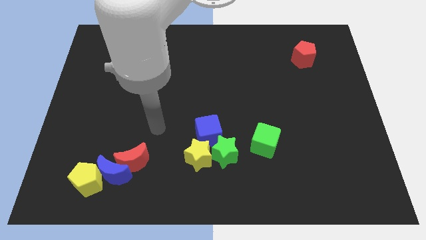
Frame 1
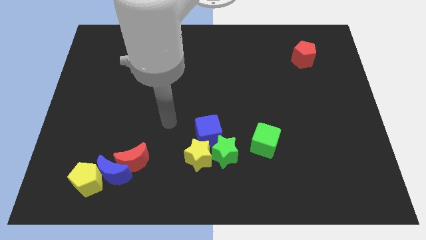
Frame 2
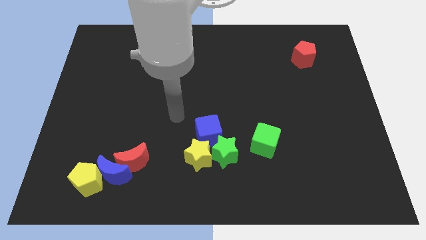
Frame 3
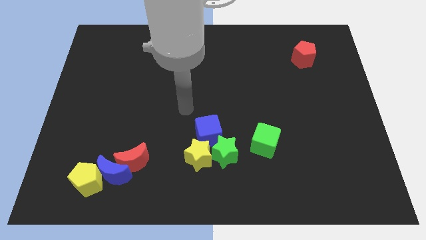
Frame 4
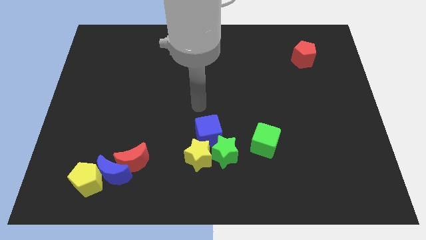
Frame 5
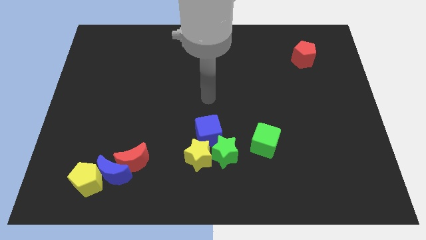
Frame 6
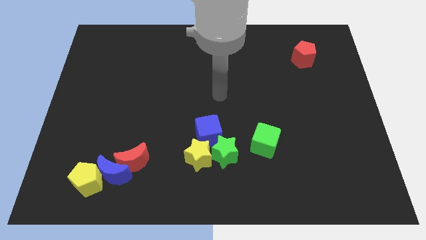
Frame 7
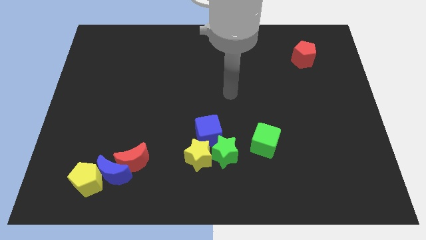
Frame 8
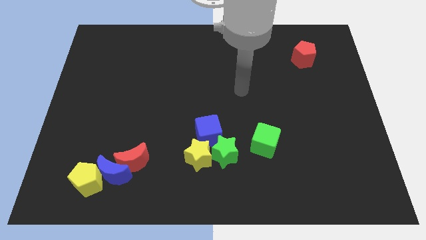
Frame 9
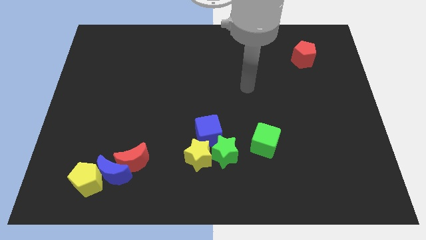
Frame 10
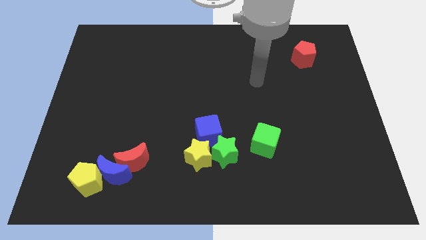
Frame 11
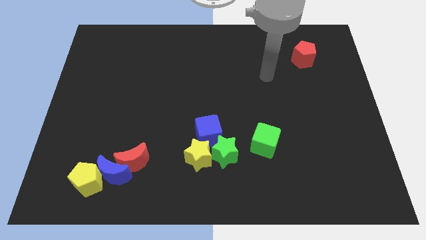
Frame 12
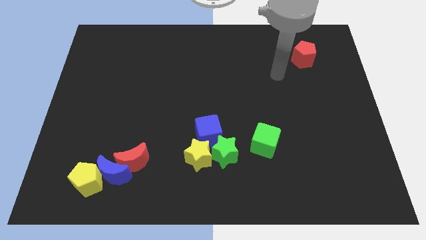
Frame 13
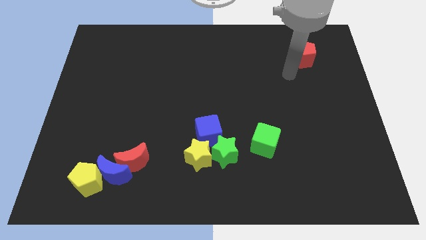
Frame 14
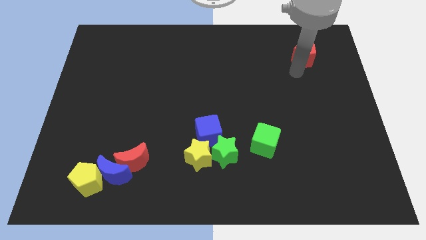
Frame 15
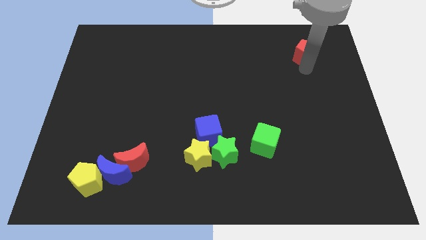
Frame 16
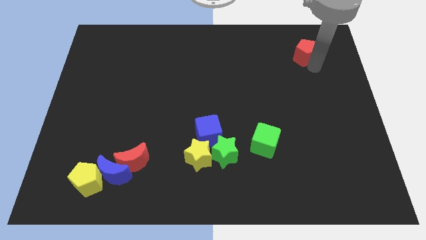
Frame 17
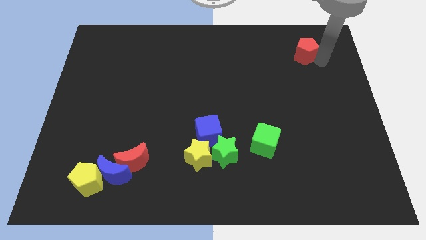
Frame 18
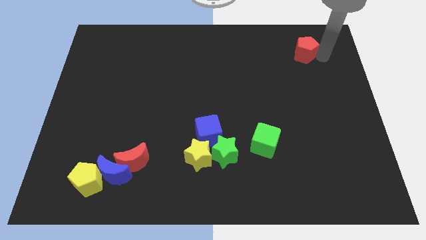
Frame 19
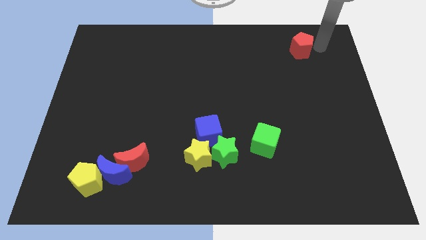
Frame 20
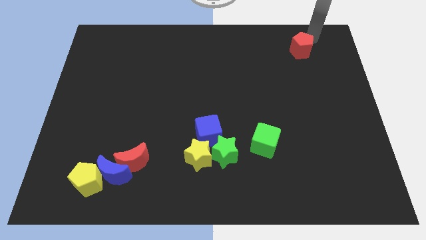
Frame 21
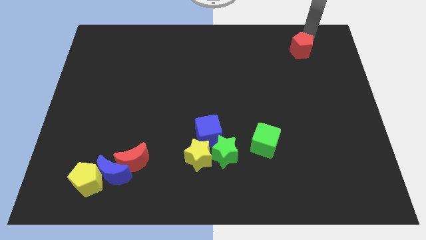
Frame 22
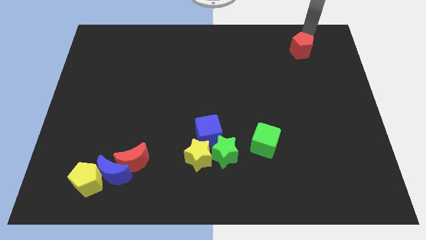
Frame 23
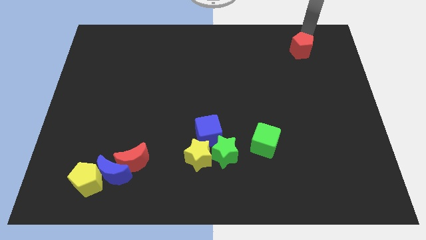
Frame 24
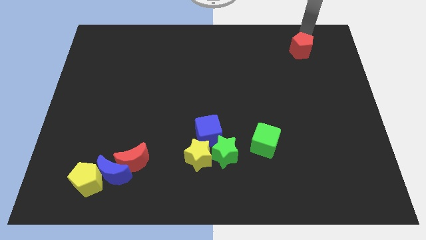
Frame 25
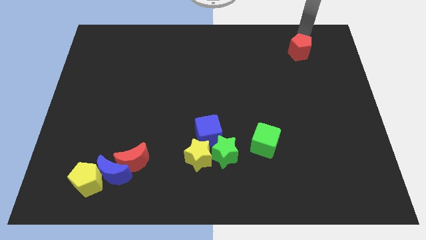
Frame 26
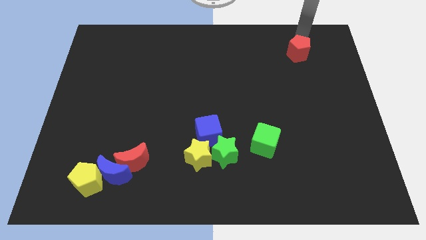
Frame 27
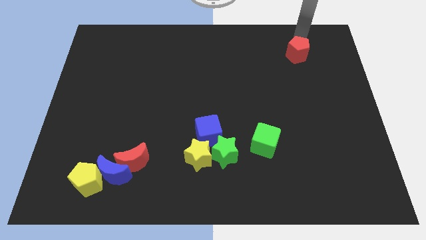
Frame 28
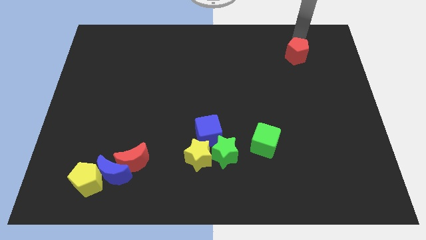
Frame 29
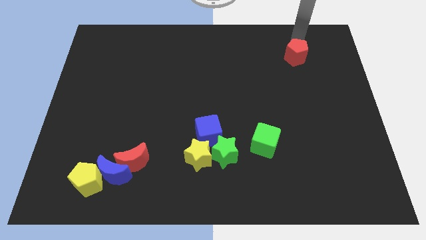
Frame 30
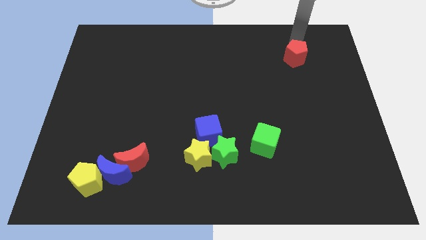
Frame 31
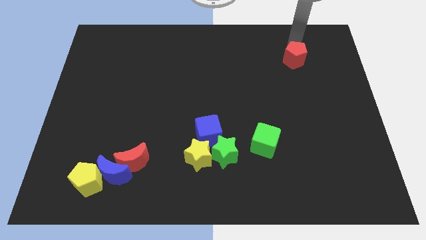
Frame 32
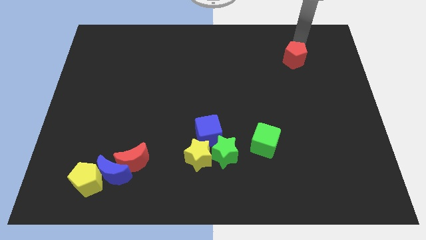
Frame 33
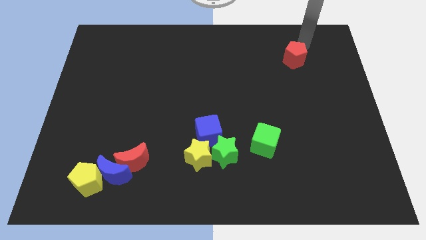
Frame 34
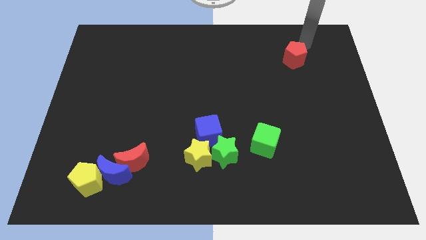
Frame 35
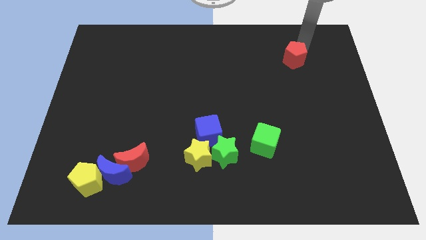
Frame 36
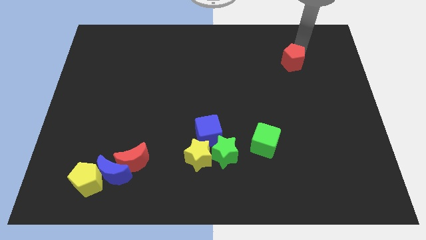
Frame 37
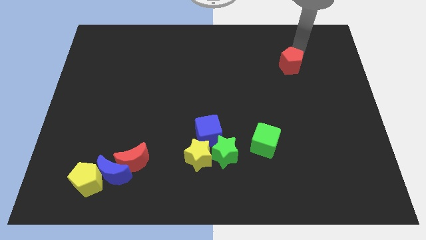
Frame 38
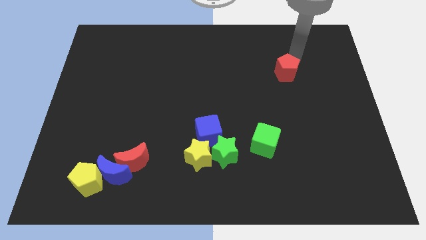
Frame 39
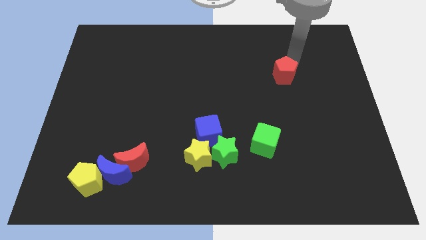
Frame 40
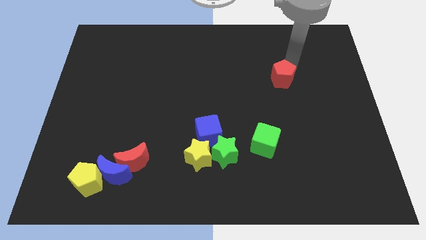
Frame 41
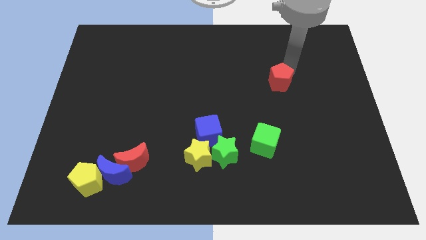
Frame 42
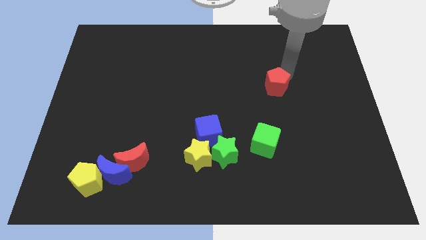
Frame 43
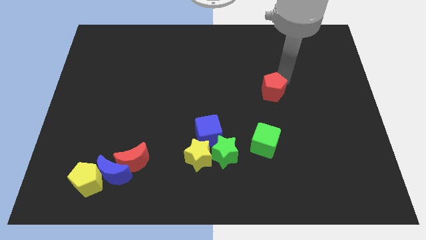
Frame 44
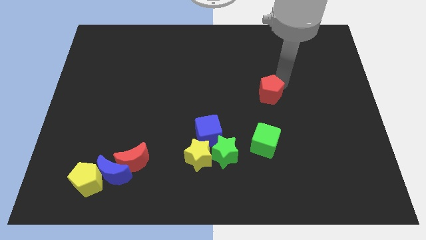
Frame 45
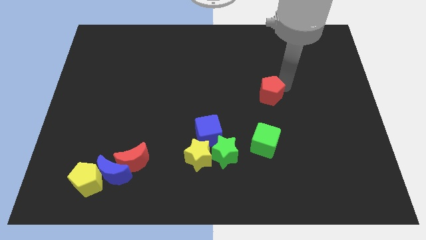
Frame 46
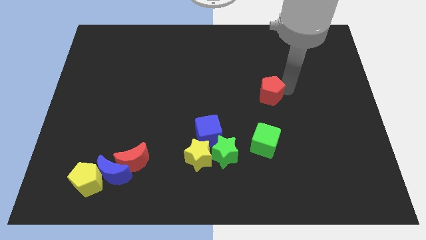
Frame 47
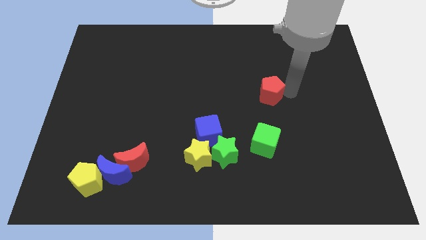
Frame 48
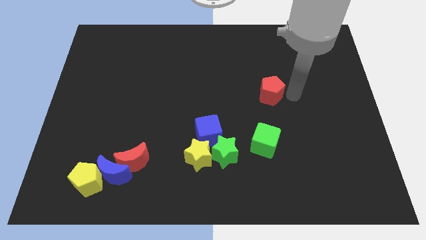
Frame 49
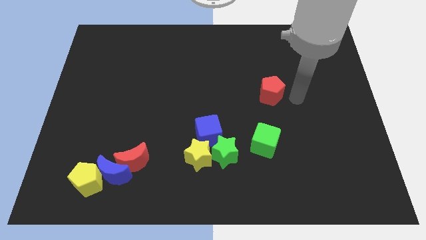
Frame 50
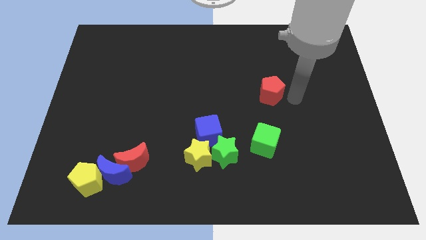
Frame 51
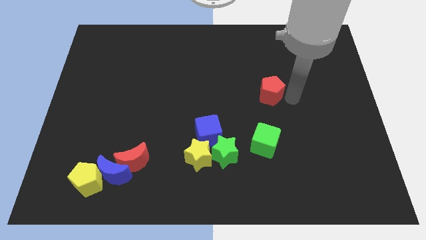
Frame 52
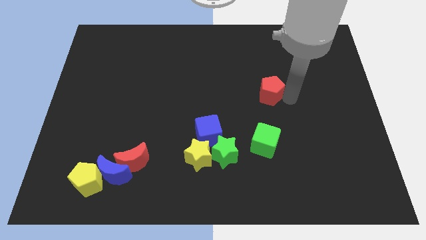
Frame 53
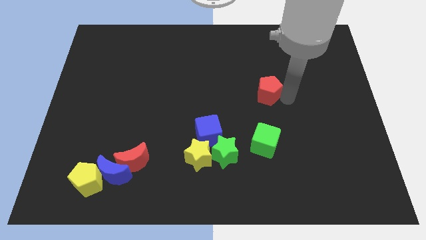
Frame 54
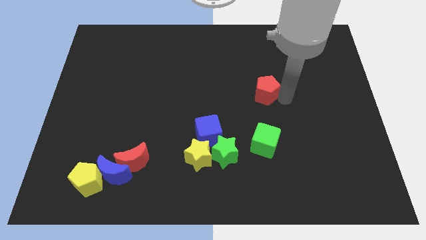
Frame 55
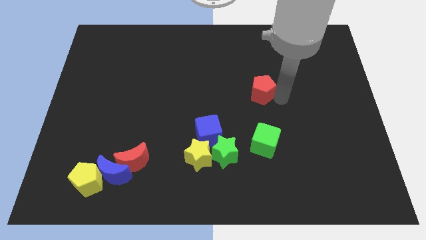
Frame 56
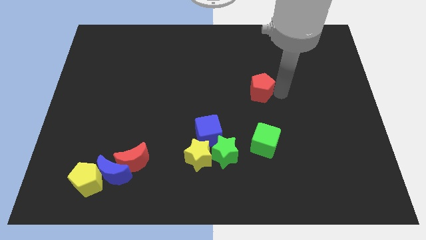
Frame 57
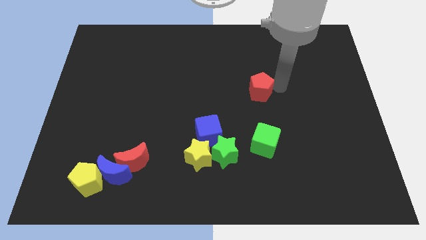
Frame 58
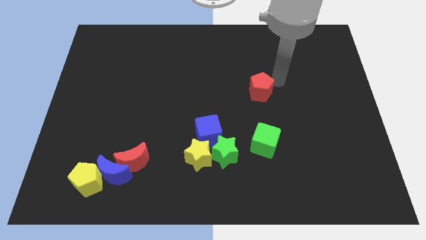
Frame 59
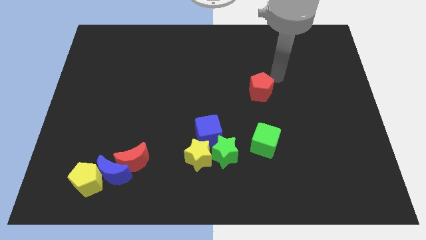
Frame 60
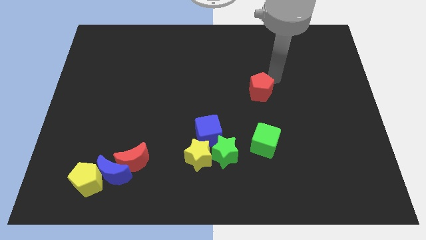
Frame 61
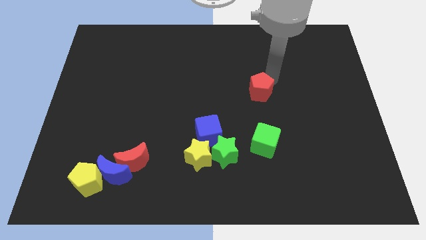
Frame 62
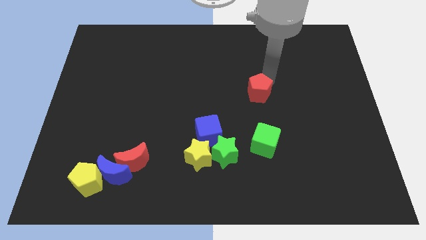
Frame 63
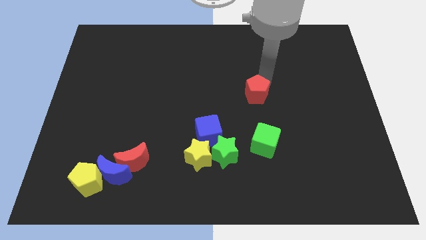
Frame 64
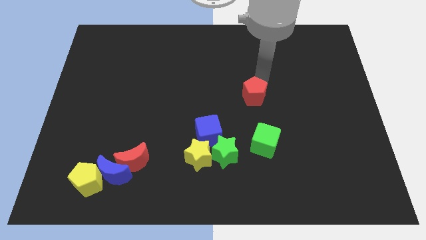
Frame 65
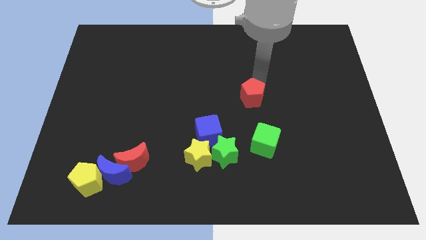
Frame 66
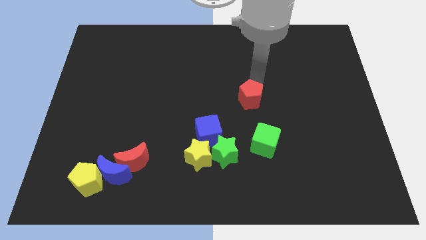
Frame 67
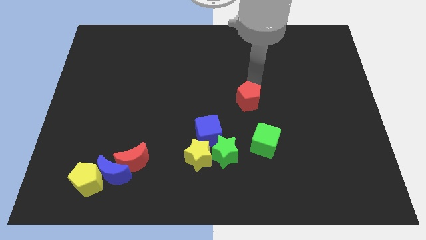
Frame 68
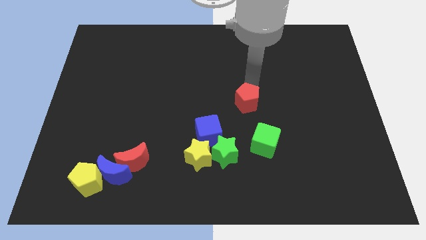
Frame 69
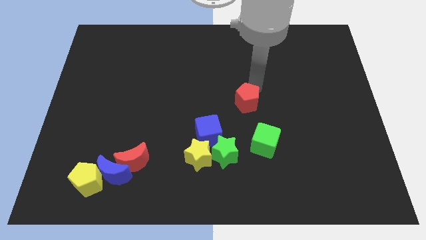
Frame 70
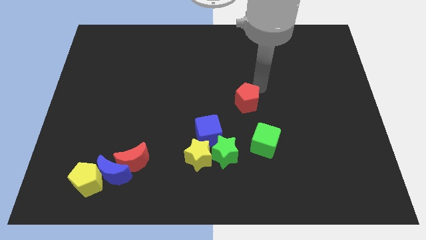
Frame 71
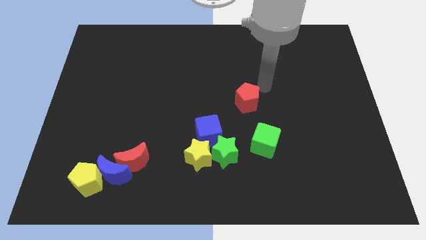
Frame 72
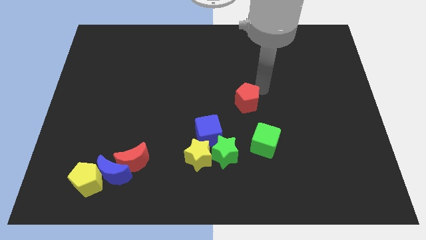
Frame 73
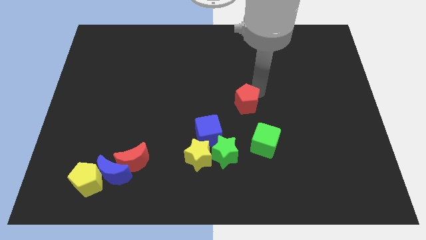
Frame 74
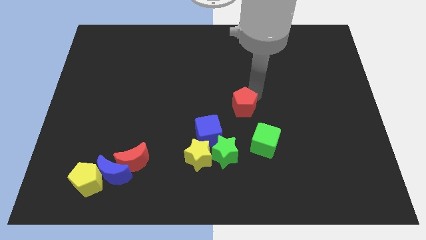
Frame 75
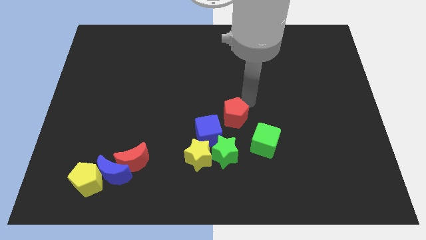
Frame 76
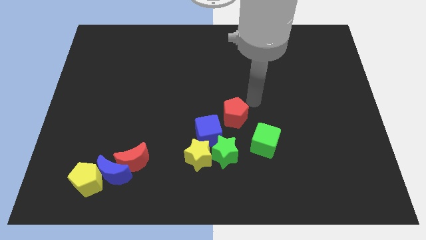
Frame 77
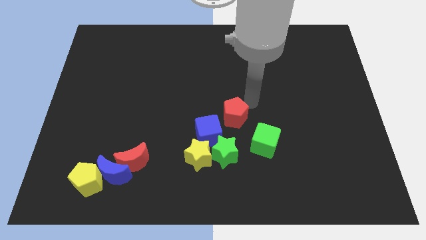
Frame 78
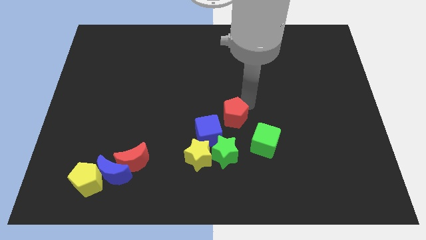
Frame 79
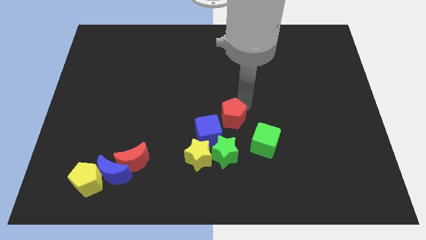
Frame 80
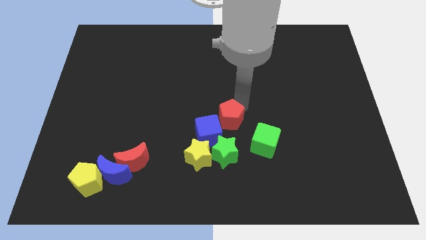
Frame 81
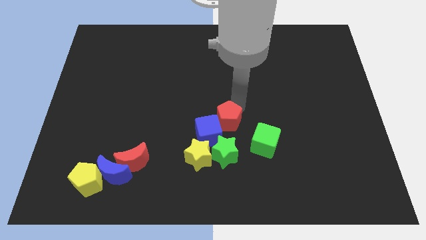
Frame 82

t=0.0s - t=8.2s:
put the red pentagon to the blue cube
